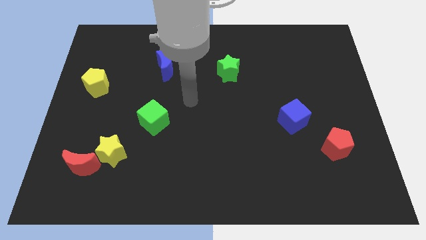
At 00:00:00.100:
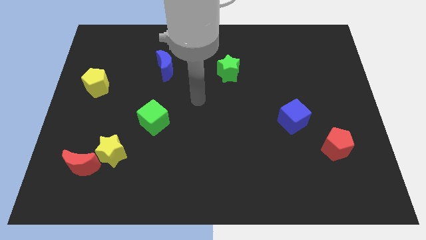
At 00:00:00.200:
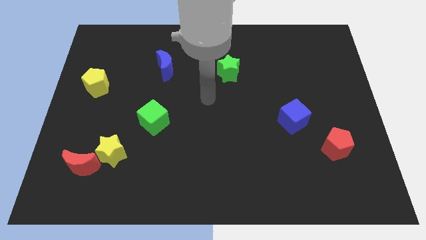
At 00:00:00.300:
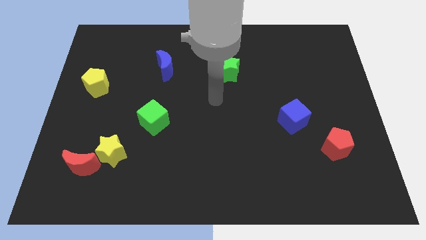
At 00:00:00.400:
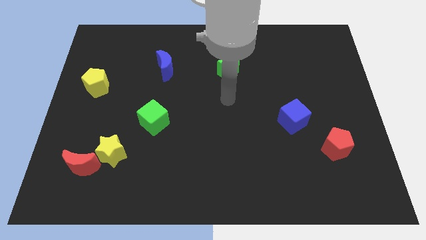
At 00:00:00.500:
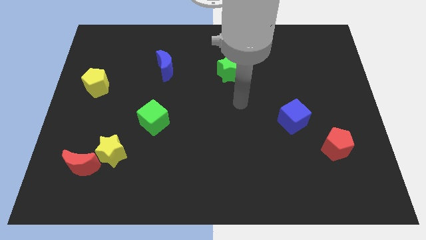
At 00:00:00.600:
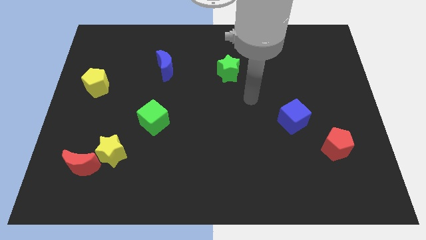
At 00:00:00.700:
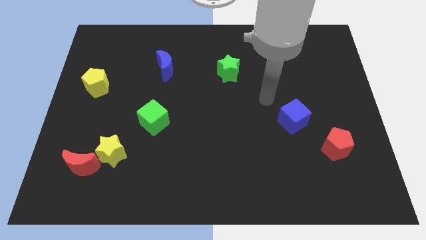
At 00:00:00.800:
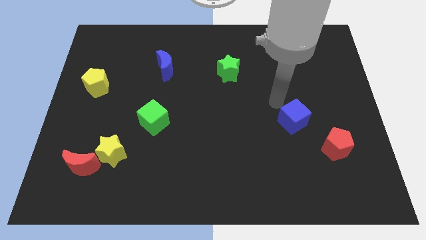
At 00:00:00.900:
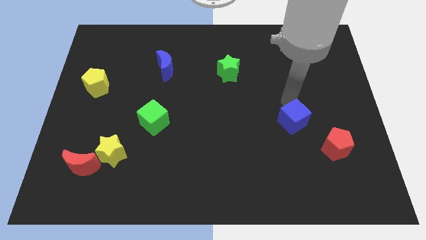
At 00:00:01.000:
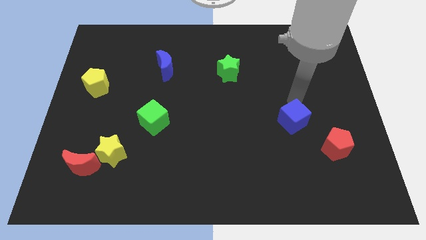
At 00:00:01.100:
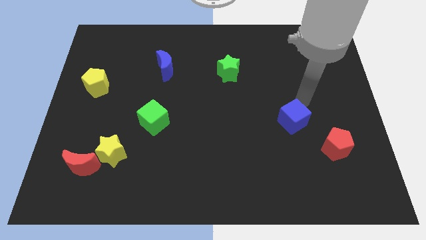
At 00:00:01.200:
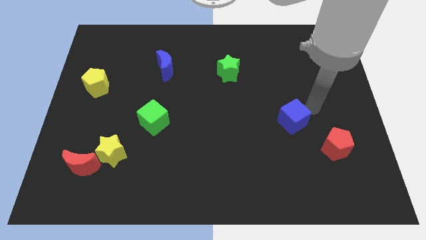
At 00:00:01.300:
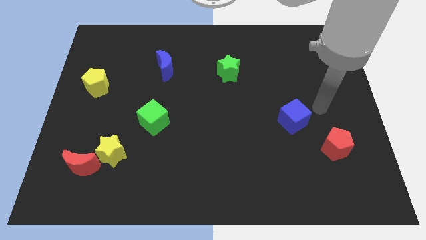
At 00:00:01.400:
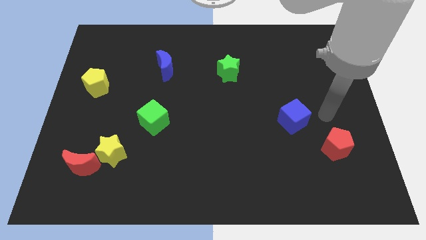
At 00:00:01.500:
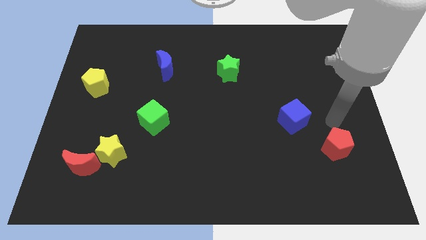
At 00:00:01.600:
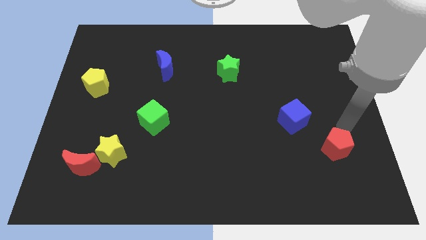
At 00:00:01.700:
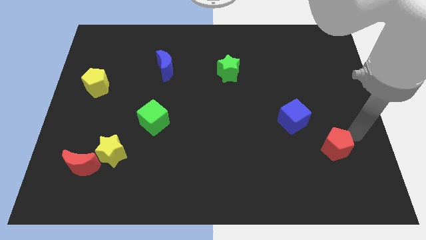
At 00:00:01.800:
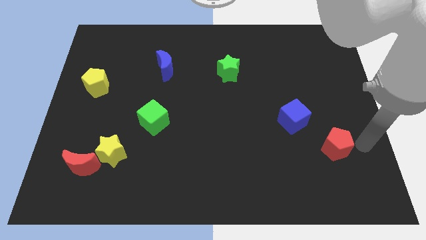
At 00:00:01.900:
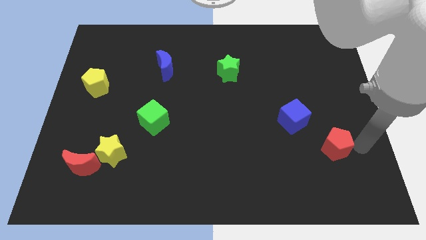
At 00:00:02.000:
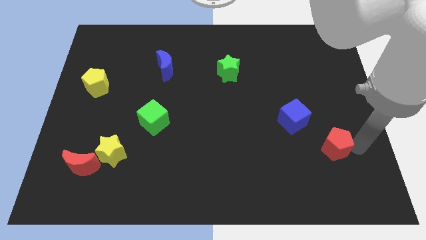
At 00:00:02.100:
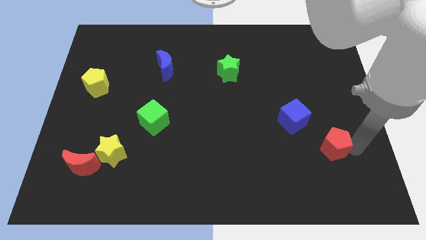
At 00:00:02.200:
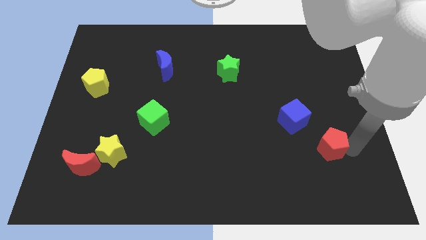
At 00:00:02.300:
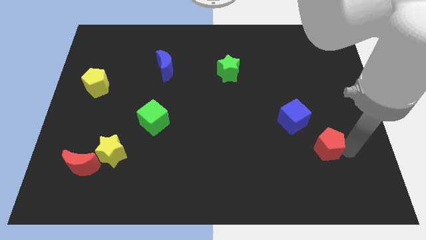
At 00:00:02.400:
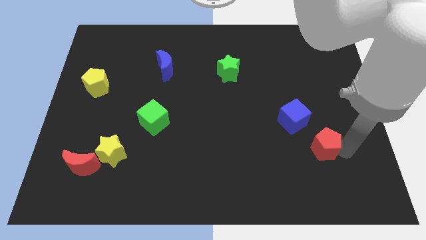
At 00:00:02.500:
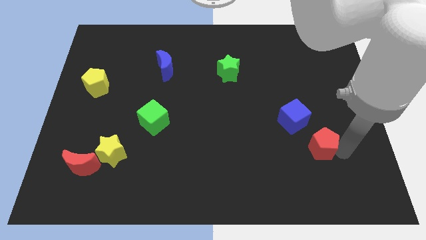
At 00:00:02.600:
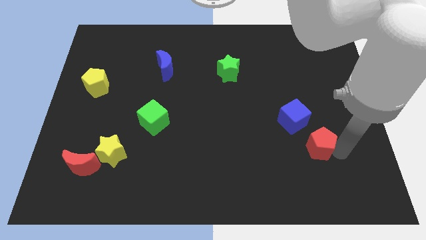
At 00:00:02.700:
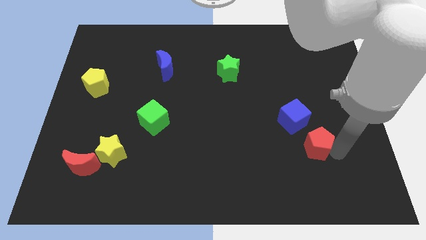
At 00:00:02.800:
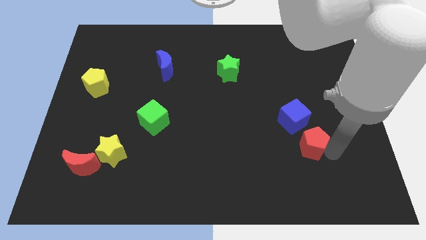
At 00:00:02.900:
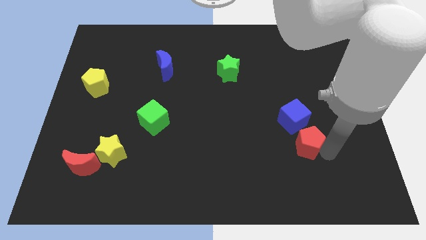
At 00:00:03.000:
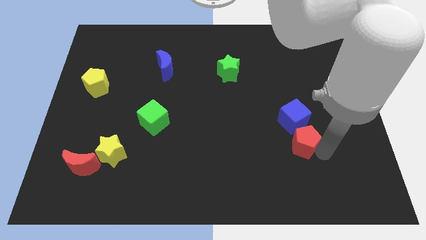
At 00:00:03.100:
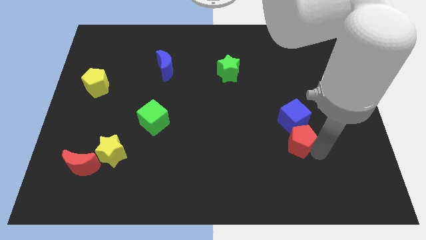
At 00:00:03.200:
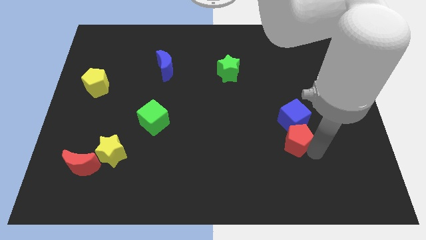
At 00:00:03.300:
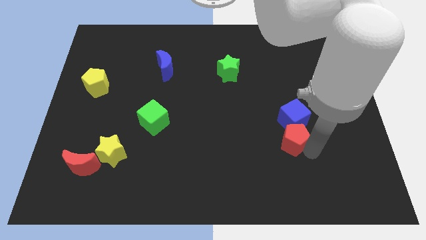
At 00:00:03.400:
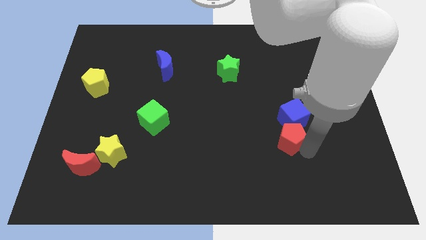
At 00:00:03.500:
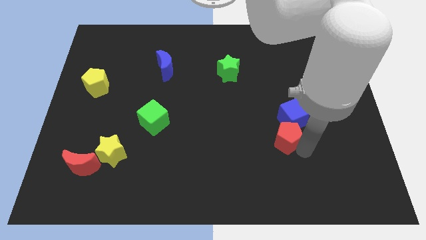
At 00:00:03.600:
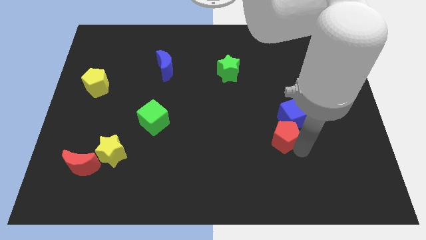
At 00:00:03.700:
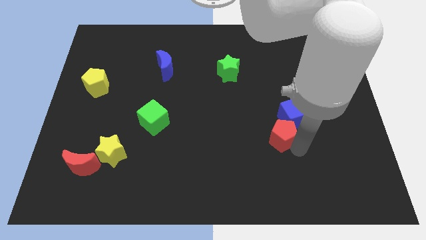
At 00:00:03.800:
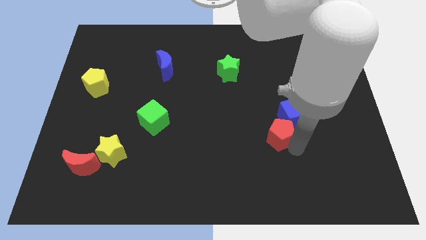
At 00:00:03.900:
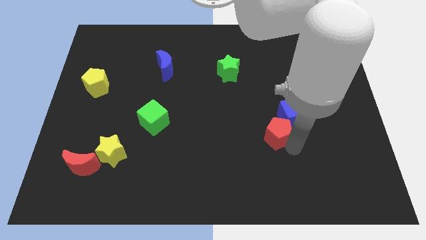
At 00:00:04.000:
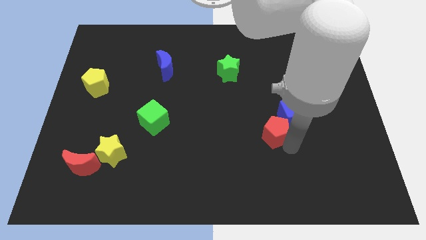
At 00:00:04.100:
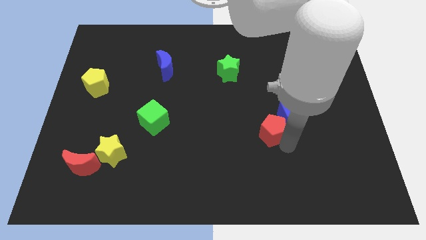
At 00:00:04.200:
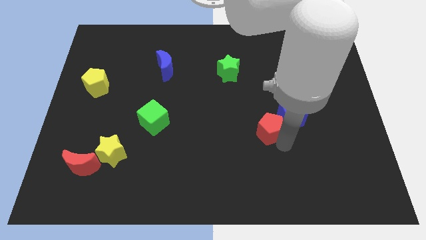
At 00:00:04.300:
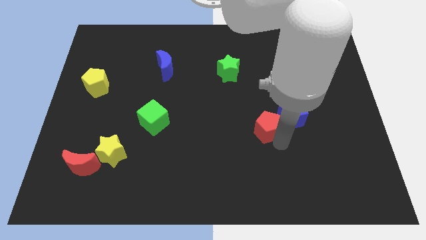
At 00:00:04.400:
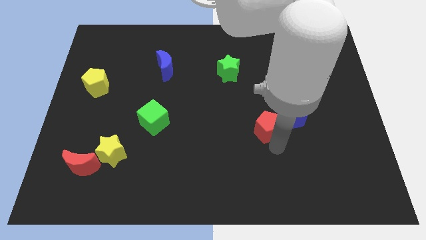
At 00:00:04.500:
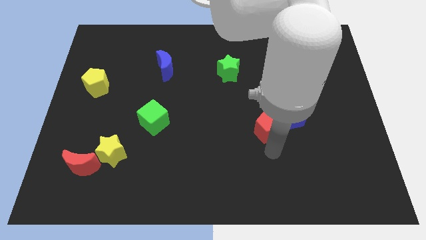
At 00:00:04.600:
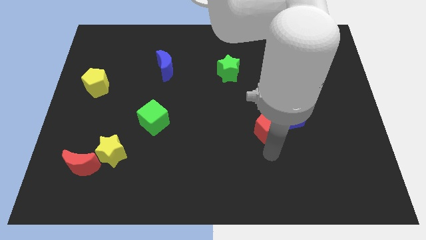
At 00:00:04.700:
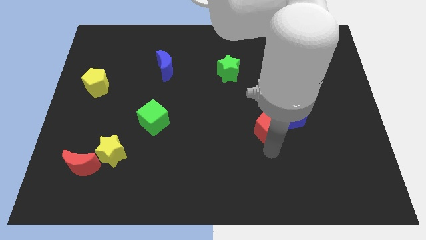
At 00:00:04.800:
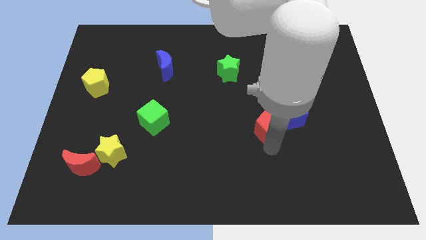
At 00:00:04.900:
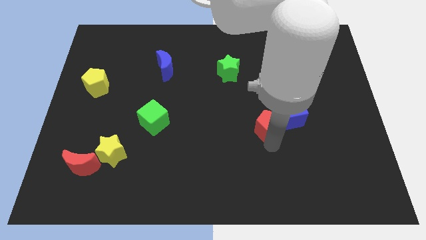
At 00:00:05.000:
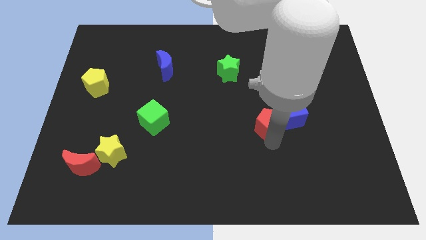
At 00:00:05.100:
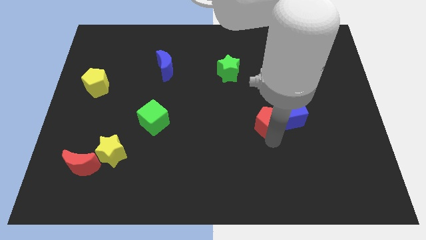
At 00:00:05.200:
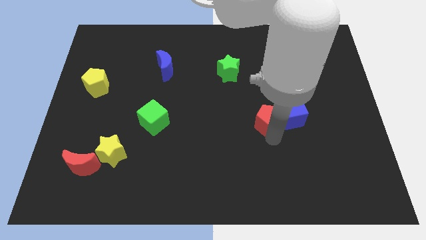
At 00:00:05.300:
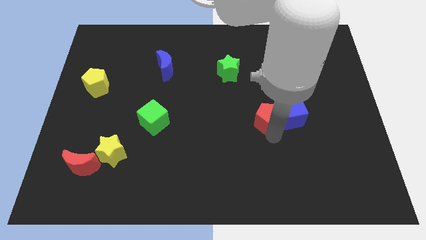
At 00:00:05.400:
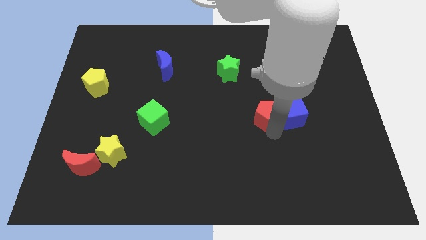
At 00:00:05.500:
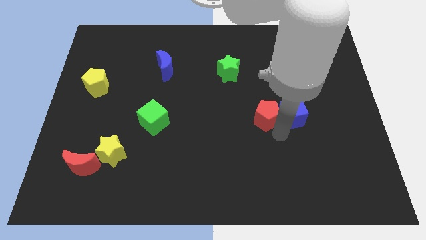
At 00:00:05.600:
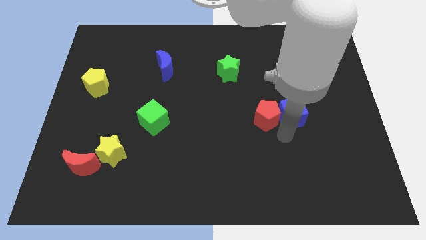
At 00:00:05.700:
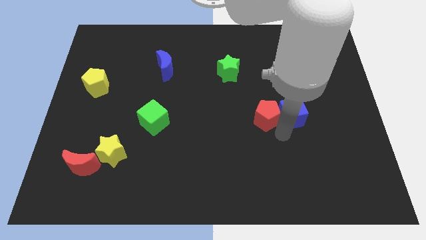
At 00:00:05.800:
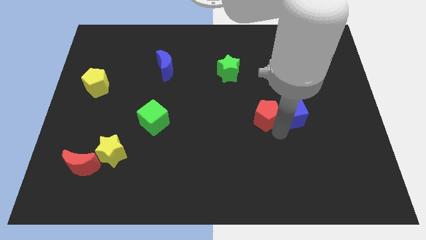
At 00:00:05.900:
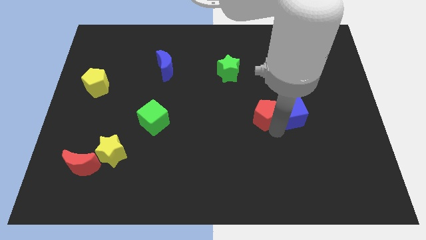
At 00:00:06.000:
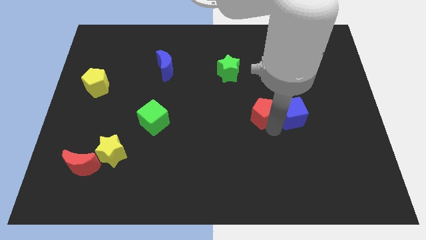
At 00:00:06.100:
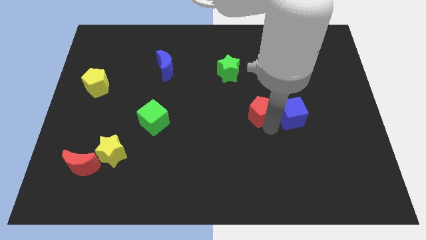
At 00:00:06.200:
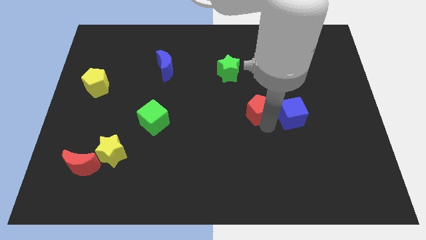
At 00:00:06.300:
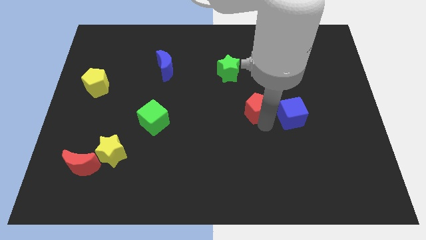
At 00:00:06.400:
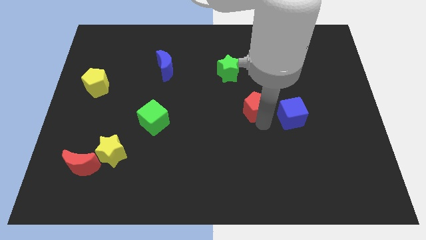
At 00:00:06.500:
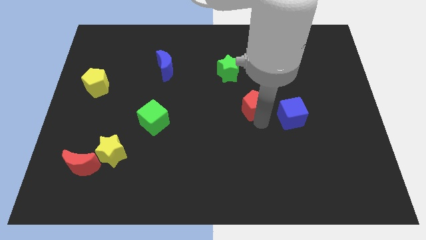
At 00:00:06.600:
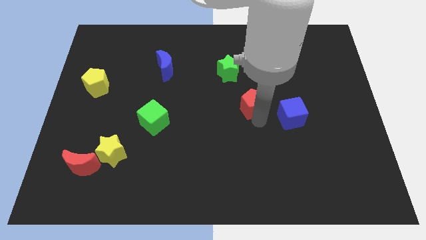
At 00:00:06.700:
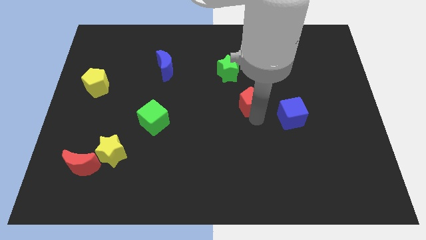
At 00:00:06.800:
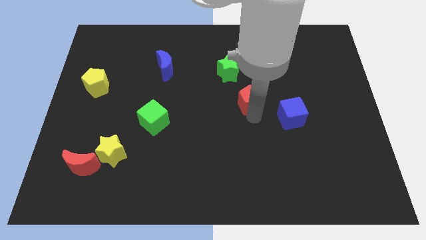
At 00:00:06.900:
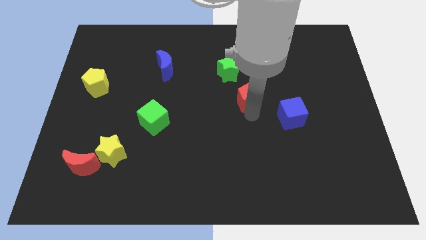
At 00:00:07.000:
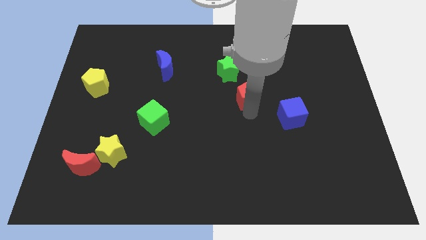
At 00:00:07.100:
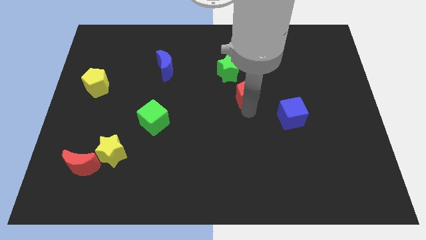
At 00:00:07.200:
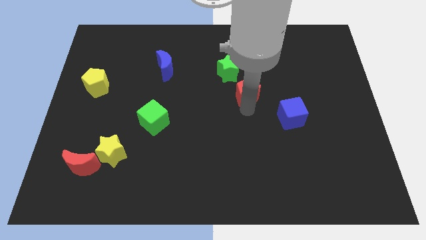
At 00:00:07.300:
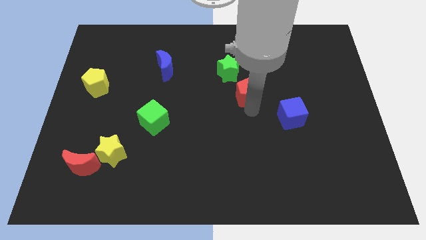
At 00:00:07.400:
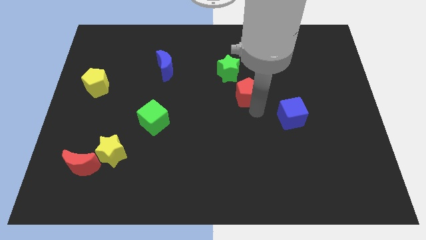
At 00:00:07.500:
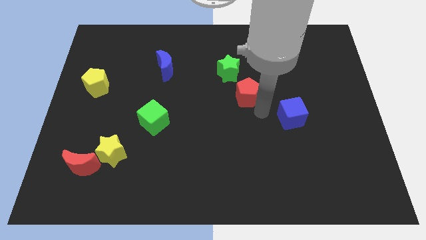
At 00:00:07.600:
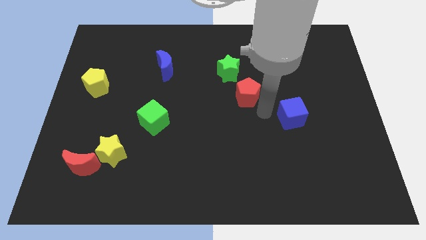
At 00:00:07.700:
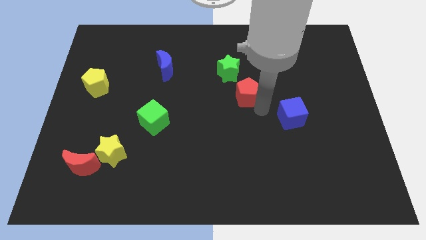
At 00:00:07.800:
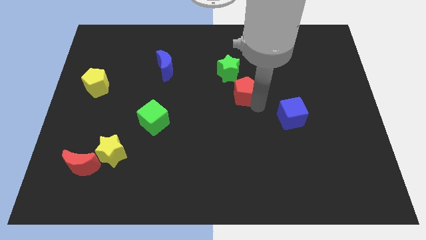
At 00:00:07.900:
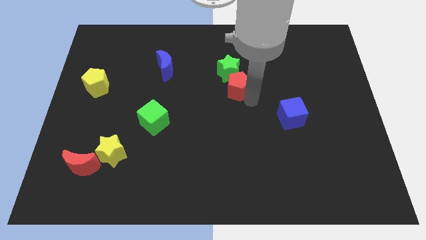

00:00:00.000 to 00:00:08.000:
slide the red pentagon towards the green star
